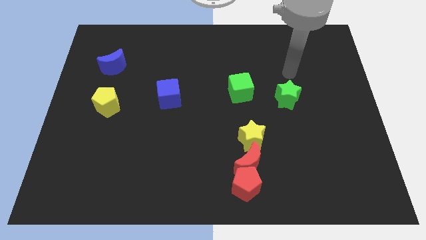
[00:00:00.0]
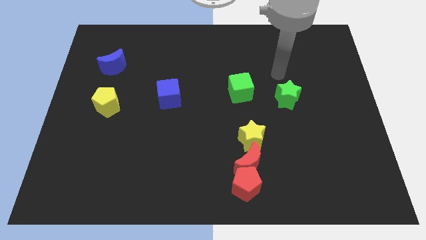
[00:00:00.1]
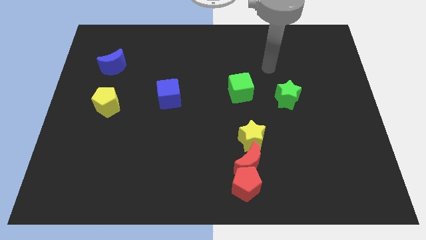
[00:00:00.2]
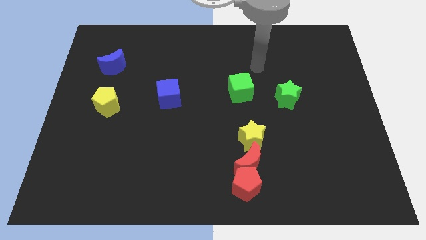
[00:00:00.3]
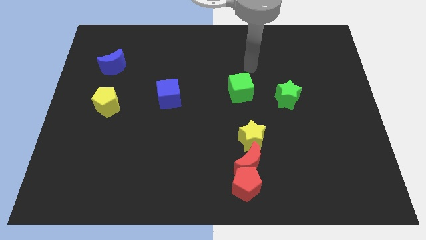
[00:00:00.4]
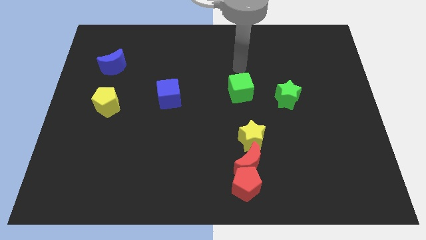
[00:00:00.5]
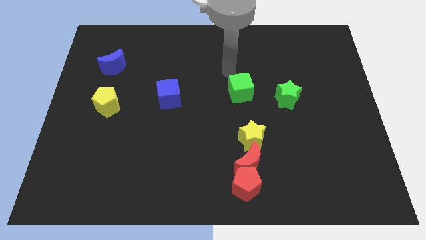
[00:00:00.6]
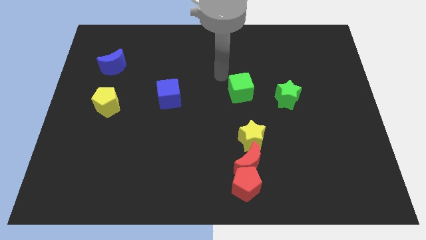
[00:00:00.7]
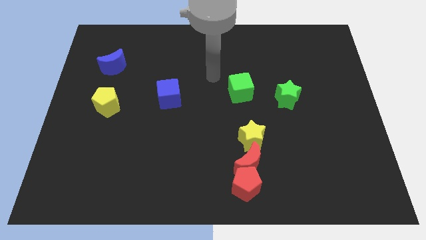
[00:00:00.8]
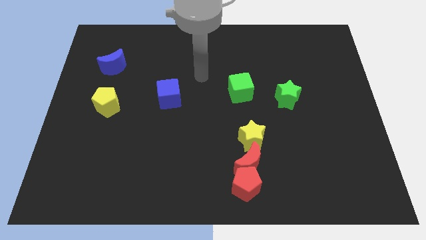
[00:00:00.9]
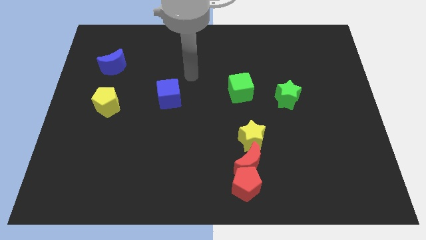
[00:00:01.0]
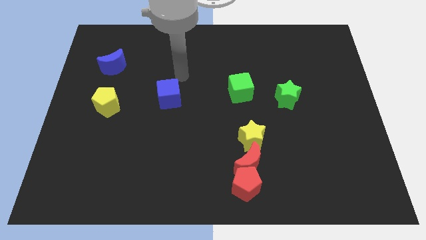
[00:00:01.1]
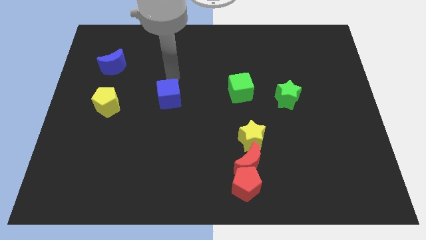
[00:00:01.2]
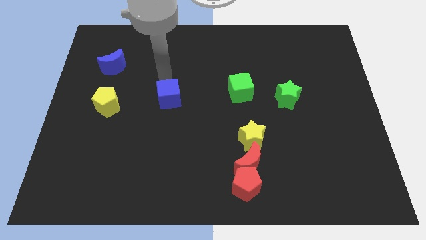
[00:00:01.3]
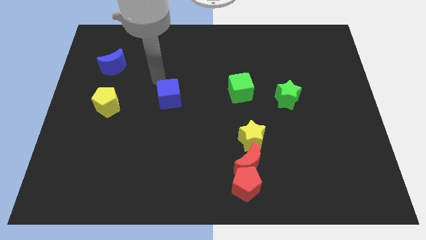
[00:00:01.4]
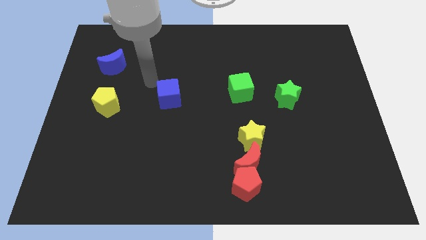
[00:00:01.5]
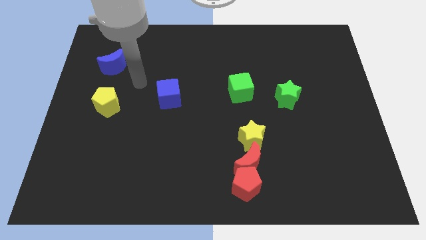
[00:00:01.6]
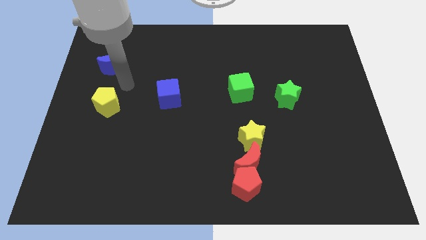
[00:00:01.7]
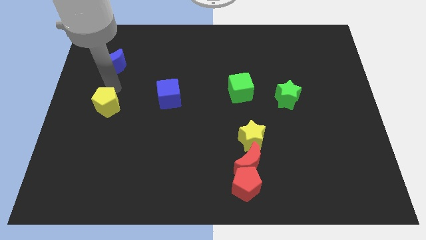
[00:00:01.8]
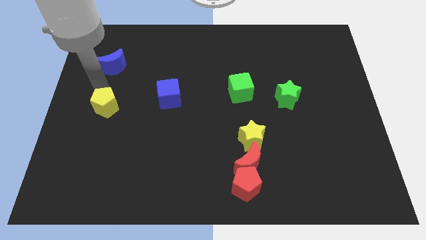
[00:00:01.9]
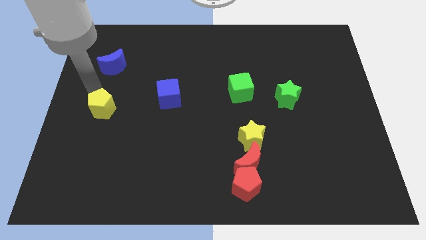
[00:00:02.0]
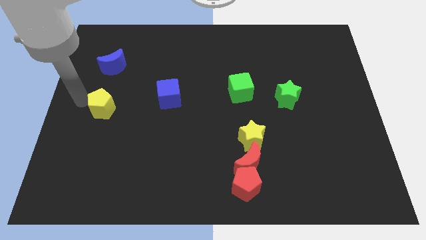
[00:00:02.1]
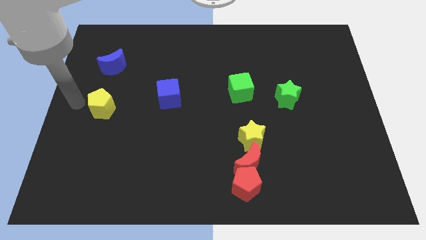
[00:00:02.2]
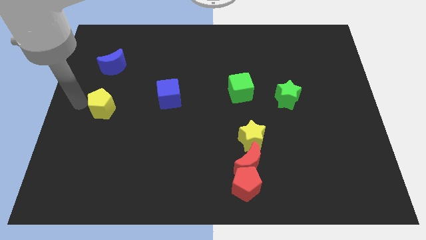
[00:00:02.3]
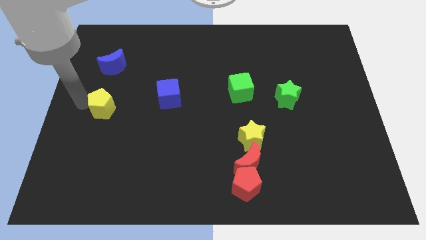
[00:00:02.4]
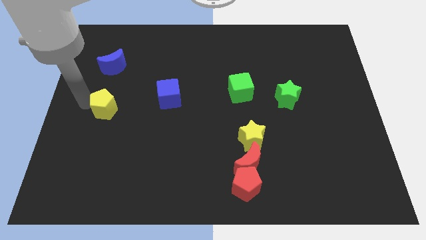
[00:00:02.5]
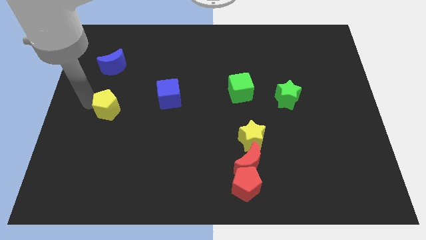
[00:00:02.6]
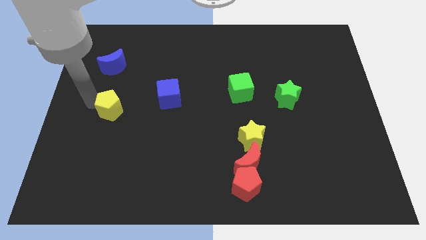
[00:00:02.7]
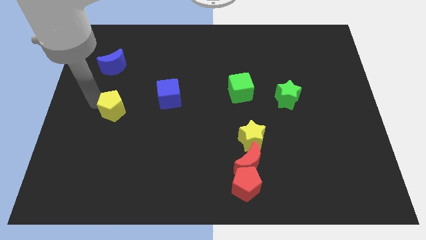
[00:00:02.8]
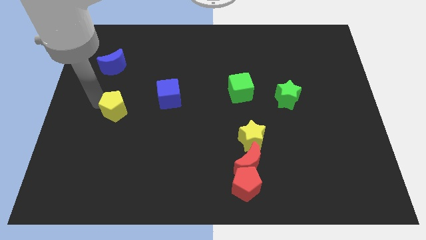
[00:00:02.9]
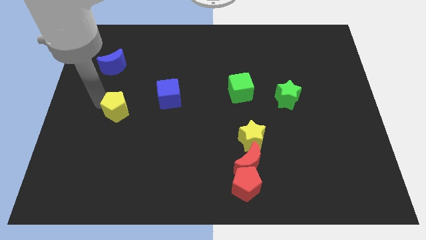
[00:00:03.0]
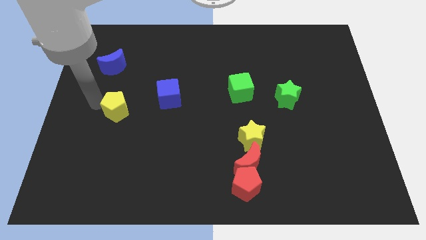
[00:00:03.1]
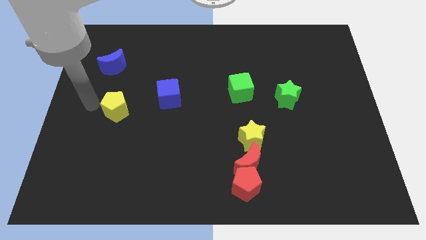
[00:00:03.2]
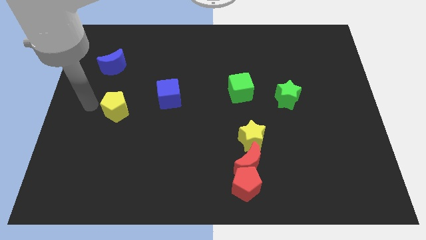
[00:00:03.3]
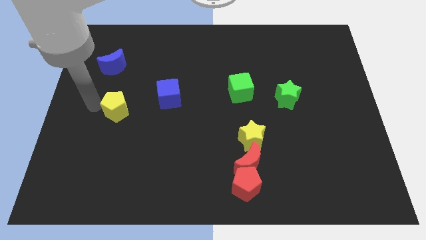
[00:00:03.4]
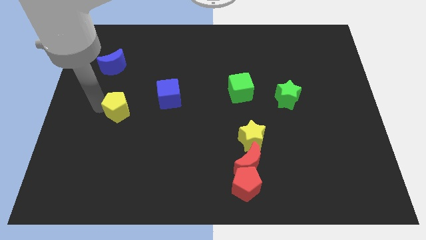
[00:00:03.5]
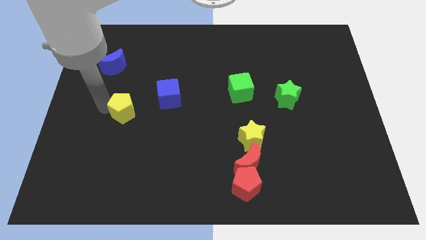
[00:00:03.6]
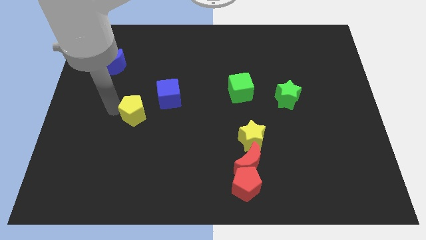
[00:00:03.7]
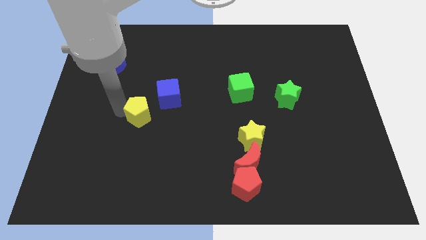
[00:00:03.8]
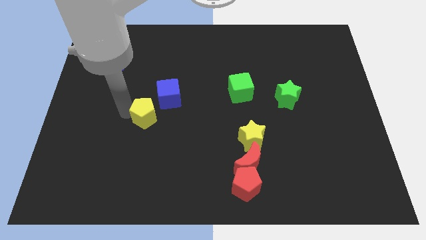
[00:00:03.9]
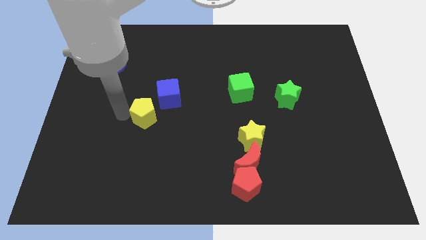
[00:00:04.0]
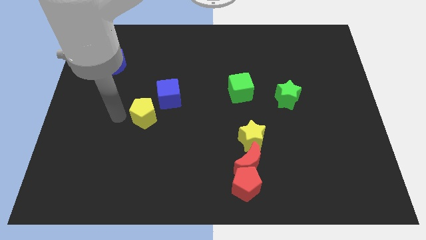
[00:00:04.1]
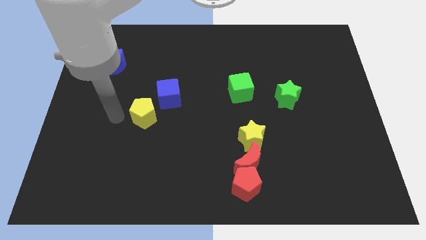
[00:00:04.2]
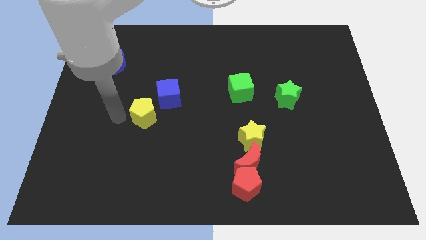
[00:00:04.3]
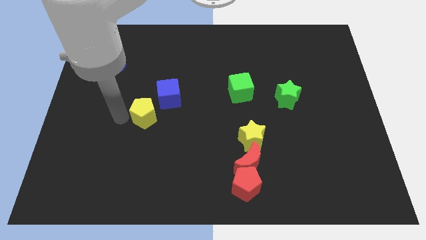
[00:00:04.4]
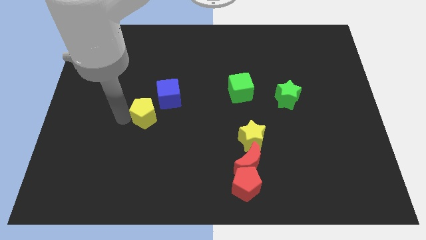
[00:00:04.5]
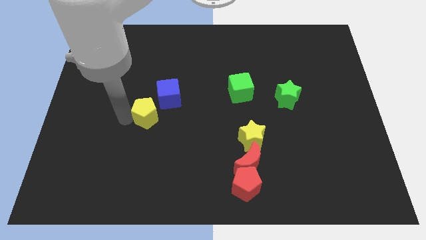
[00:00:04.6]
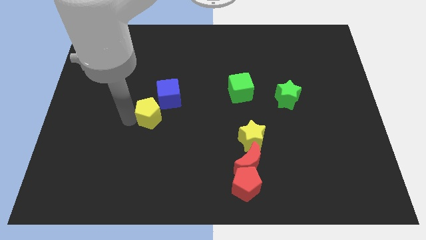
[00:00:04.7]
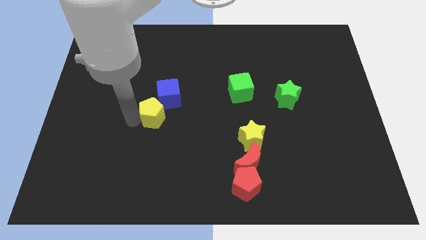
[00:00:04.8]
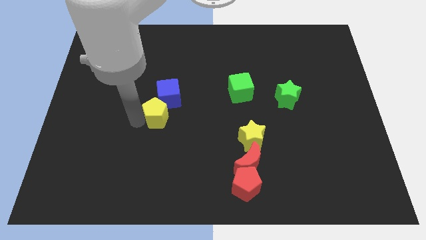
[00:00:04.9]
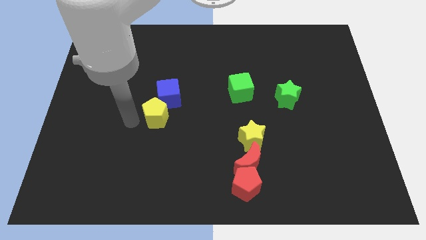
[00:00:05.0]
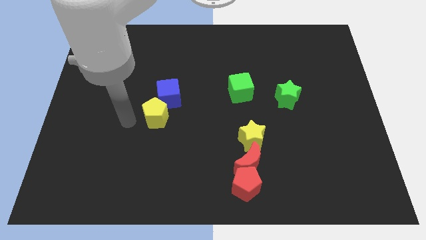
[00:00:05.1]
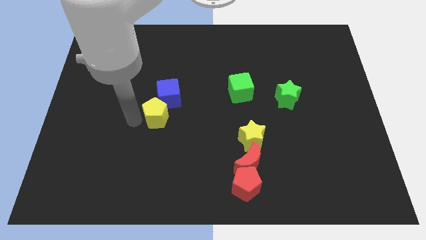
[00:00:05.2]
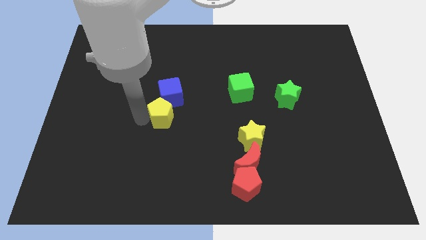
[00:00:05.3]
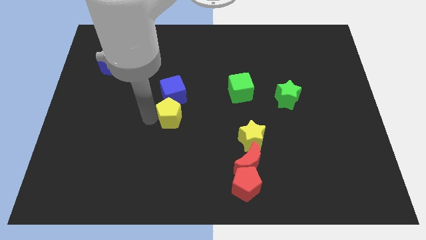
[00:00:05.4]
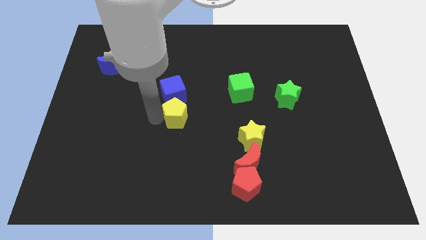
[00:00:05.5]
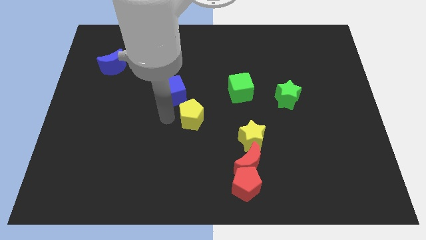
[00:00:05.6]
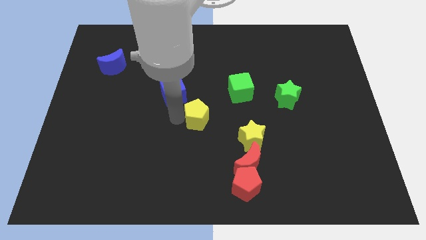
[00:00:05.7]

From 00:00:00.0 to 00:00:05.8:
slide the yellow pentagon to the right

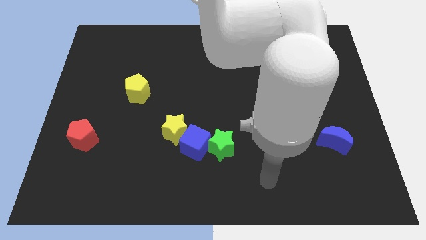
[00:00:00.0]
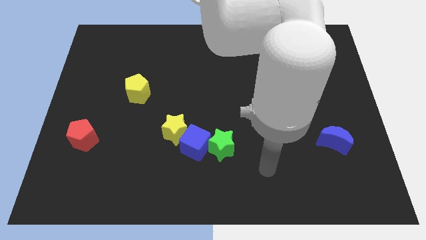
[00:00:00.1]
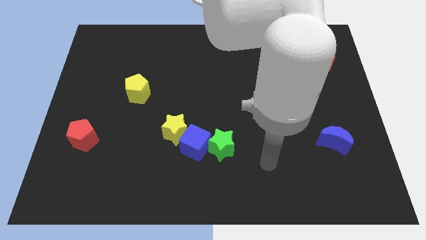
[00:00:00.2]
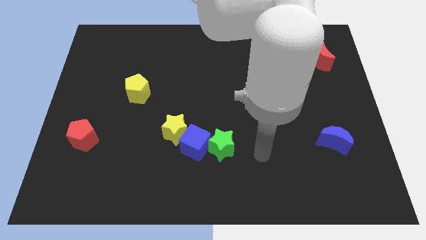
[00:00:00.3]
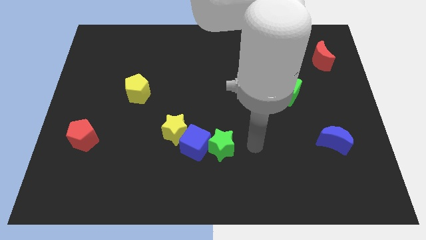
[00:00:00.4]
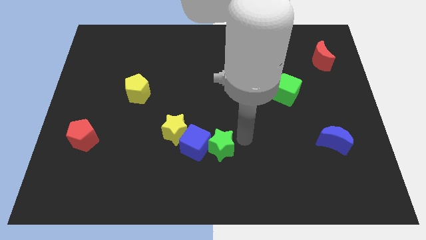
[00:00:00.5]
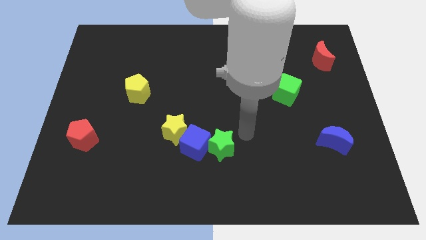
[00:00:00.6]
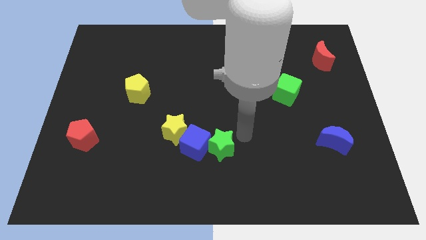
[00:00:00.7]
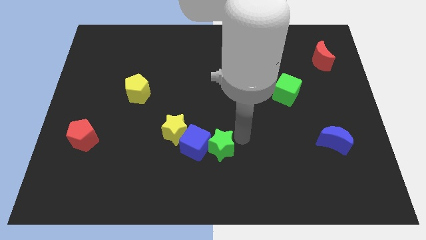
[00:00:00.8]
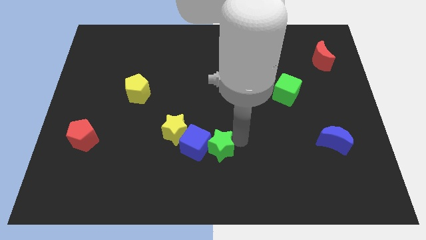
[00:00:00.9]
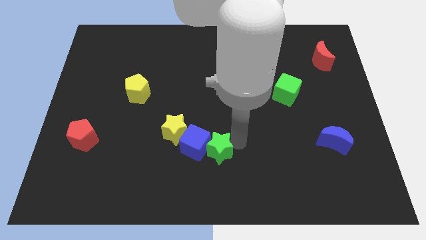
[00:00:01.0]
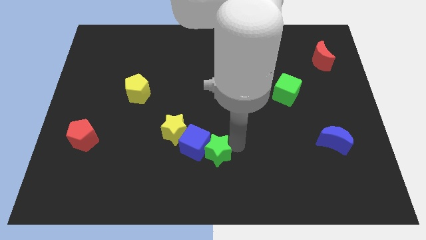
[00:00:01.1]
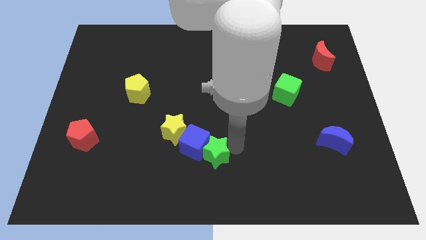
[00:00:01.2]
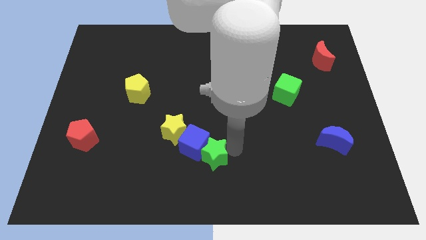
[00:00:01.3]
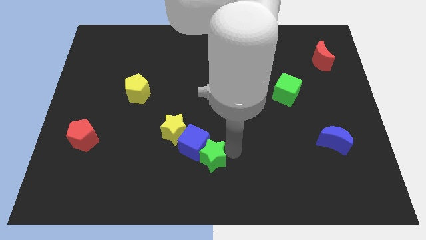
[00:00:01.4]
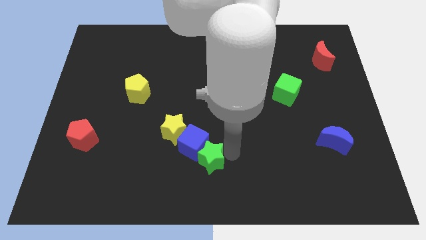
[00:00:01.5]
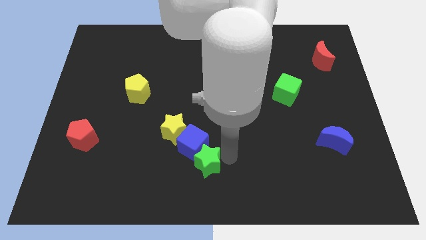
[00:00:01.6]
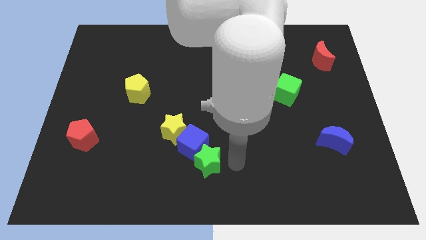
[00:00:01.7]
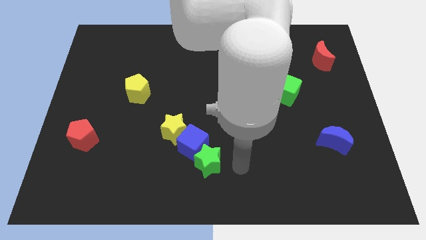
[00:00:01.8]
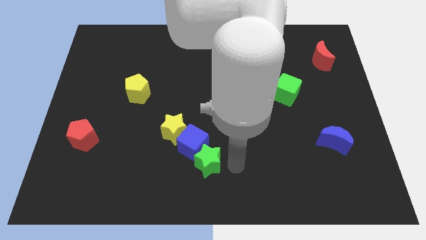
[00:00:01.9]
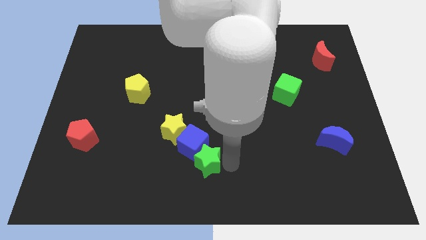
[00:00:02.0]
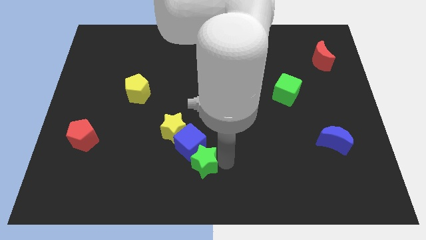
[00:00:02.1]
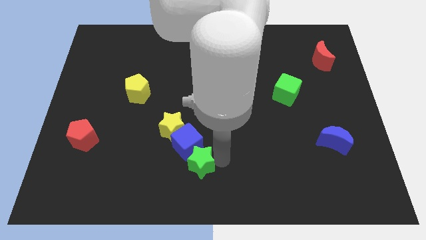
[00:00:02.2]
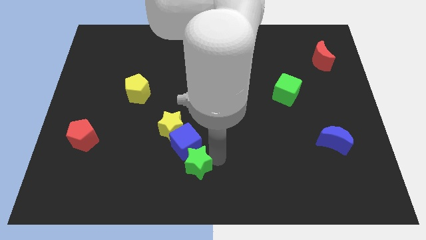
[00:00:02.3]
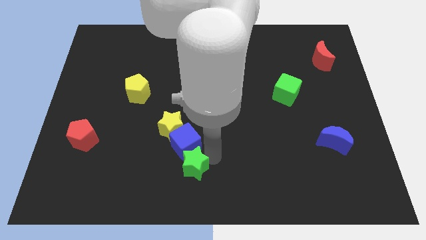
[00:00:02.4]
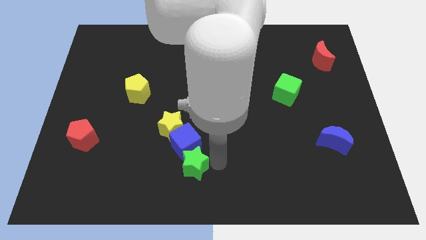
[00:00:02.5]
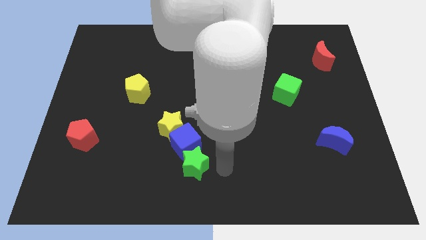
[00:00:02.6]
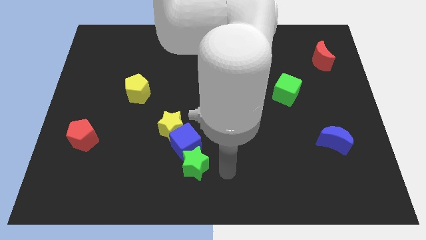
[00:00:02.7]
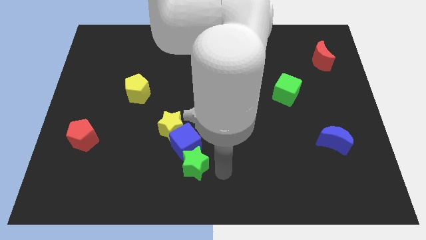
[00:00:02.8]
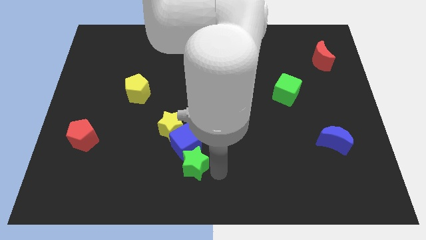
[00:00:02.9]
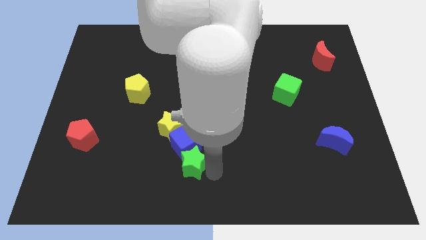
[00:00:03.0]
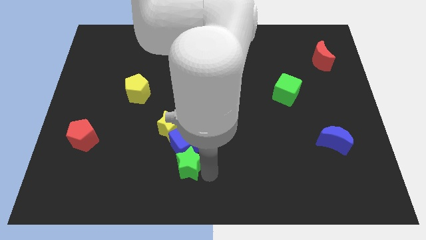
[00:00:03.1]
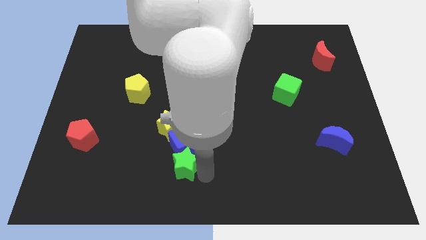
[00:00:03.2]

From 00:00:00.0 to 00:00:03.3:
push the green star a little left
